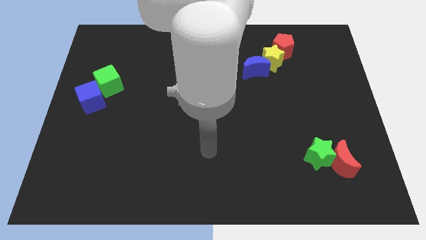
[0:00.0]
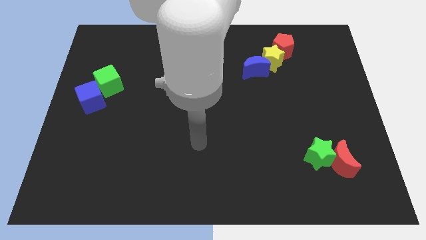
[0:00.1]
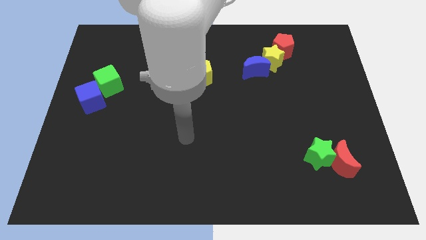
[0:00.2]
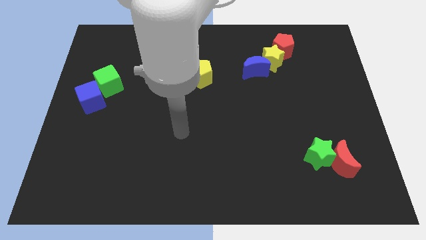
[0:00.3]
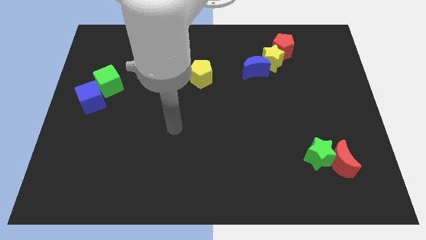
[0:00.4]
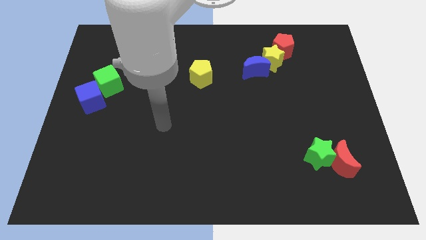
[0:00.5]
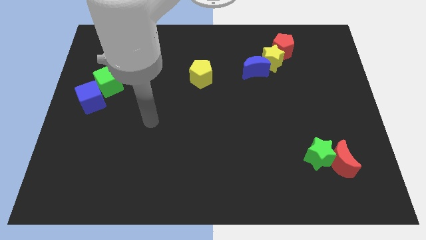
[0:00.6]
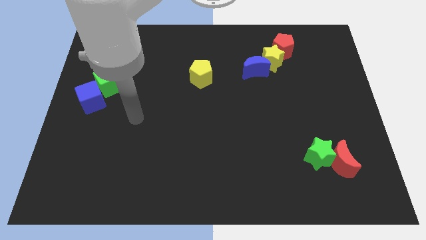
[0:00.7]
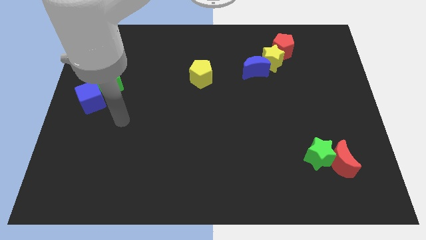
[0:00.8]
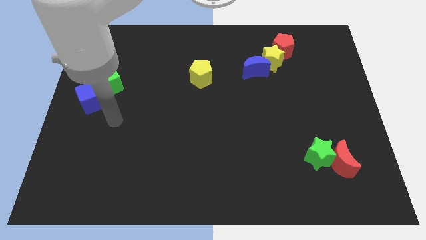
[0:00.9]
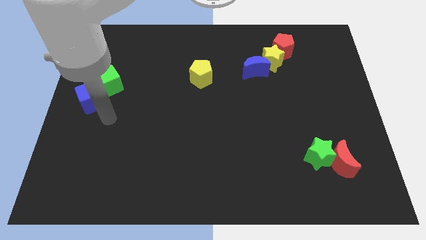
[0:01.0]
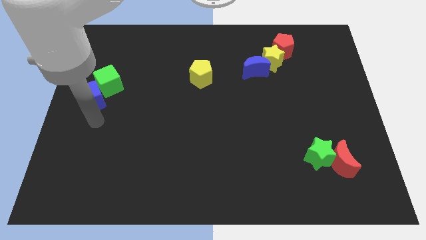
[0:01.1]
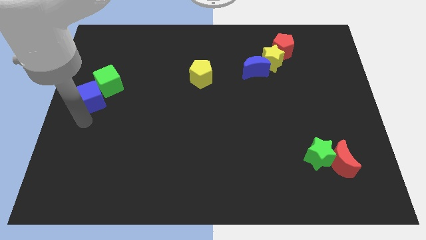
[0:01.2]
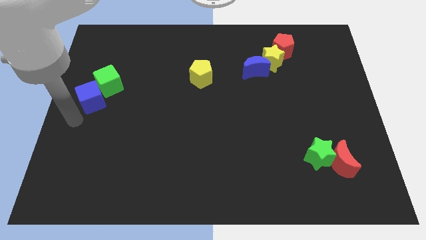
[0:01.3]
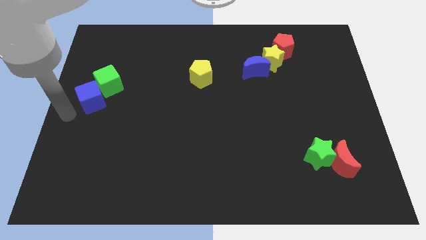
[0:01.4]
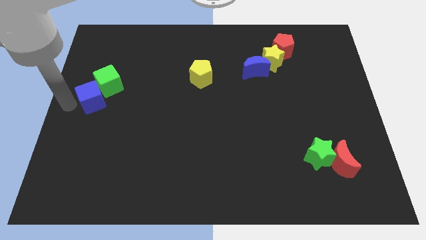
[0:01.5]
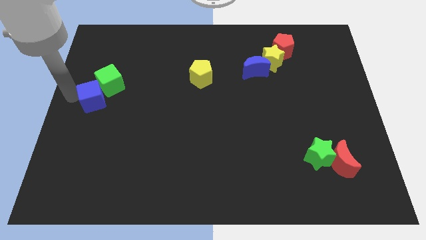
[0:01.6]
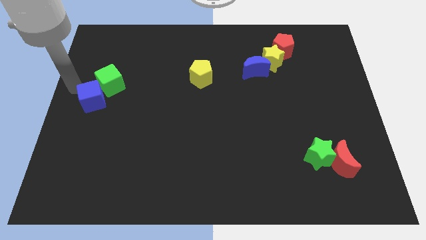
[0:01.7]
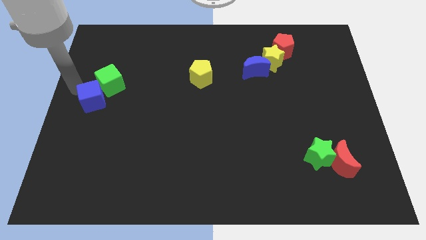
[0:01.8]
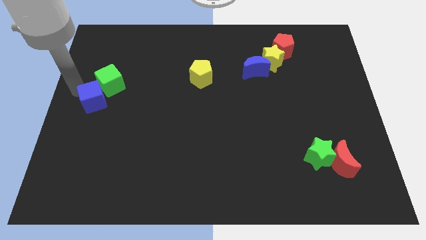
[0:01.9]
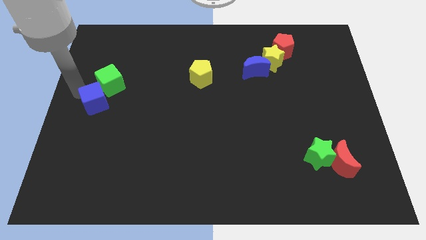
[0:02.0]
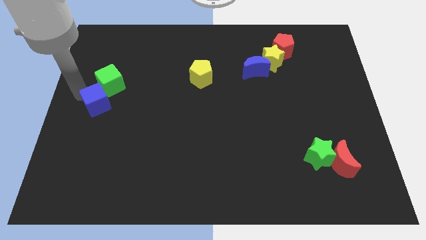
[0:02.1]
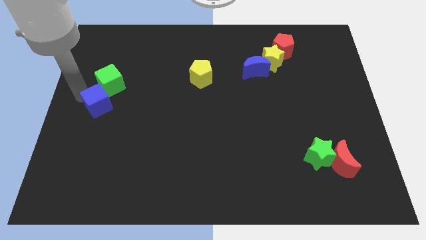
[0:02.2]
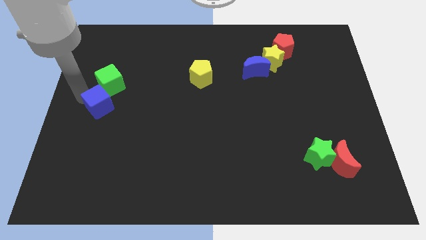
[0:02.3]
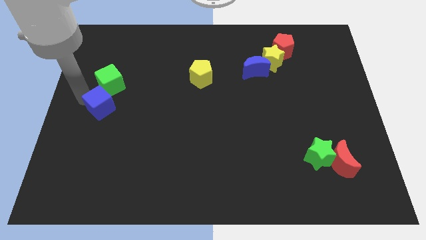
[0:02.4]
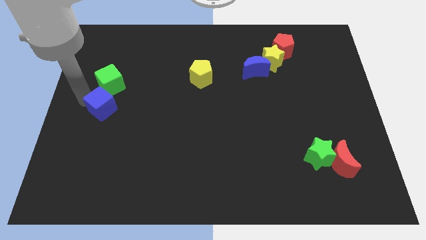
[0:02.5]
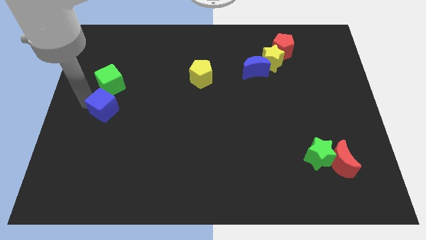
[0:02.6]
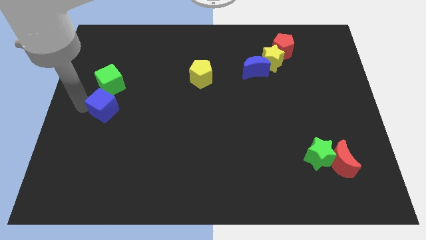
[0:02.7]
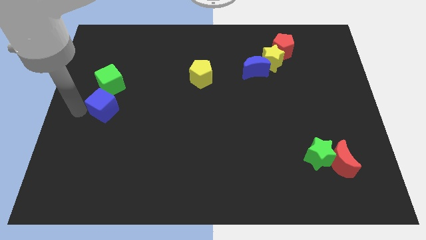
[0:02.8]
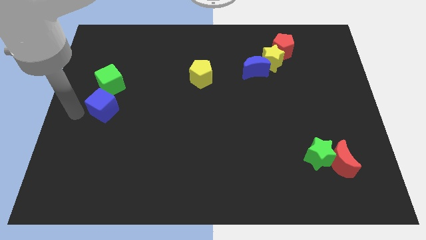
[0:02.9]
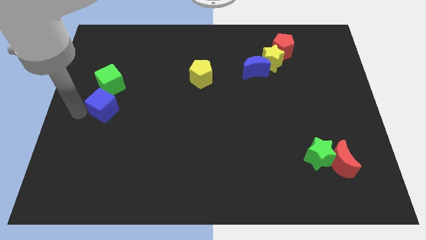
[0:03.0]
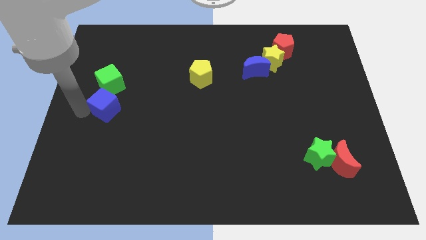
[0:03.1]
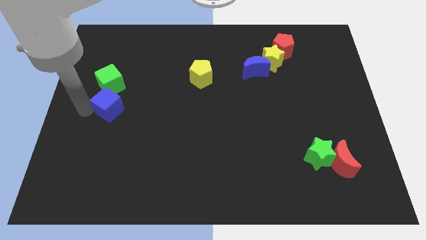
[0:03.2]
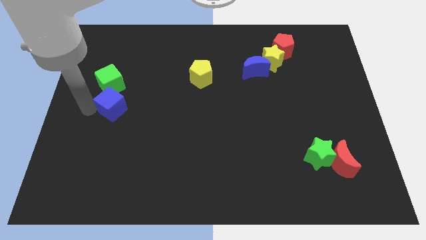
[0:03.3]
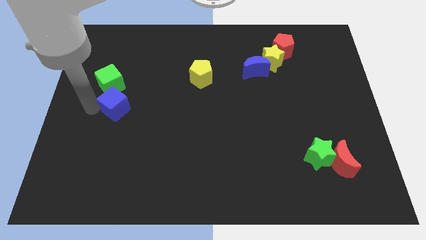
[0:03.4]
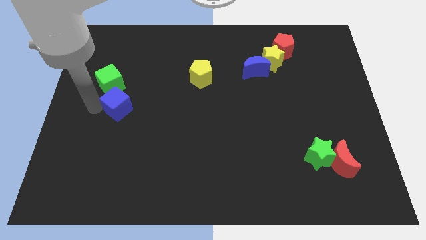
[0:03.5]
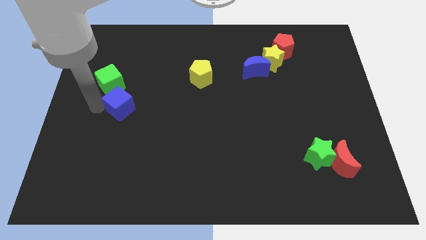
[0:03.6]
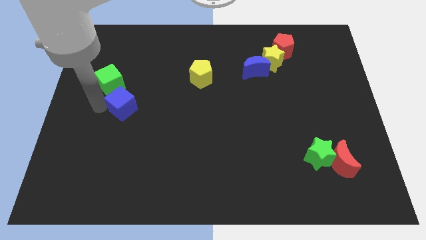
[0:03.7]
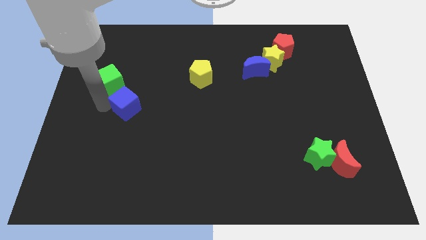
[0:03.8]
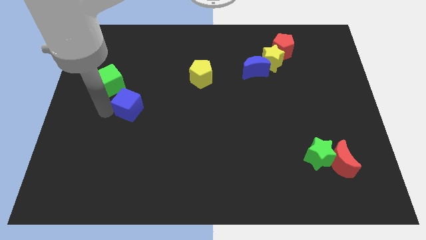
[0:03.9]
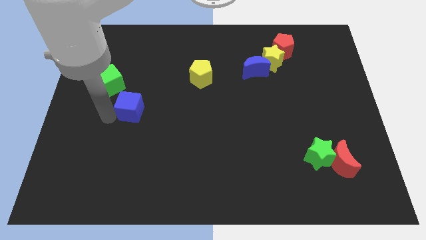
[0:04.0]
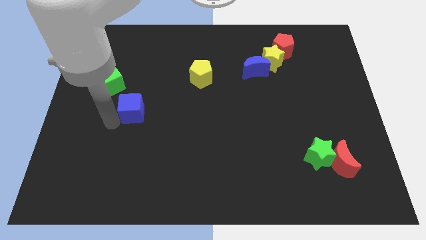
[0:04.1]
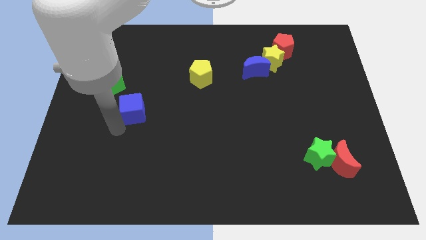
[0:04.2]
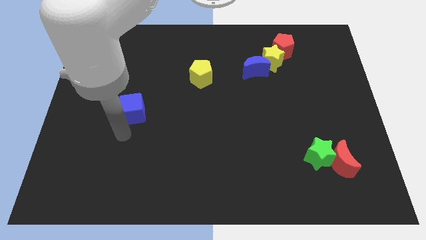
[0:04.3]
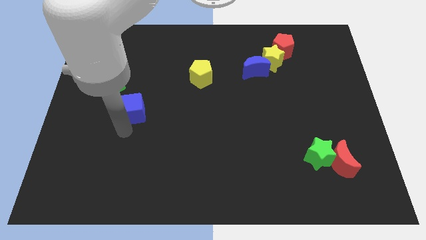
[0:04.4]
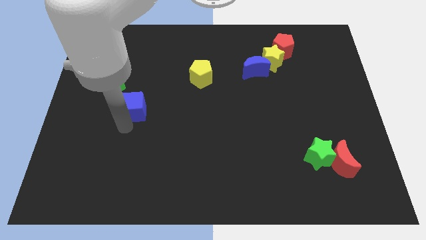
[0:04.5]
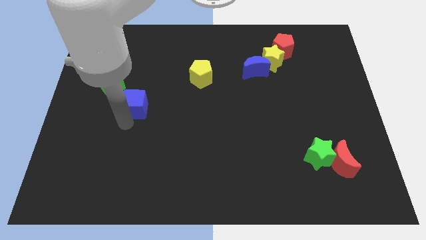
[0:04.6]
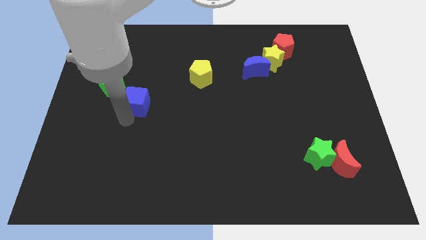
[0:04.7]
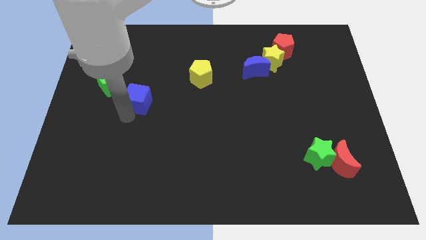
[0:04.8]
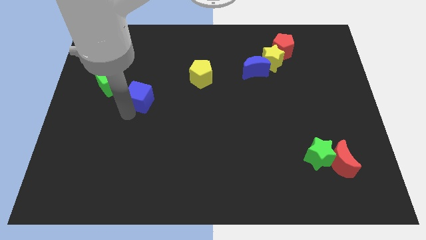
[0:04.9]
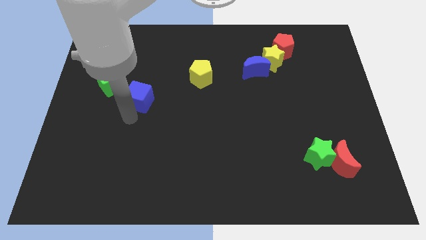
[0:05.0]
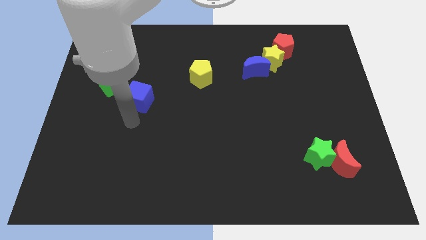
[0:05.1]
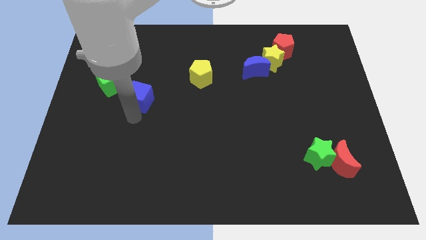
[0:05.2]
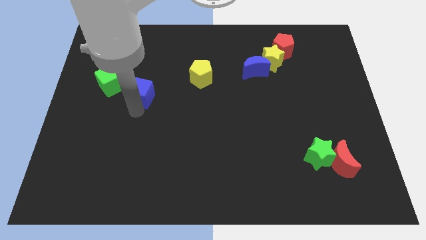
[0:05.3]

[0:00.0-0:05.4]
slightly push the blue cube diagonally up and to the right

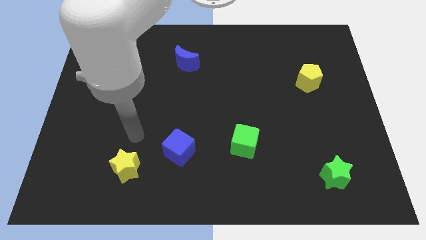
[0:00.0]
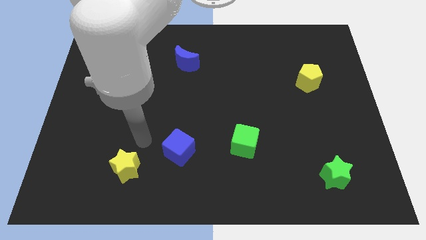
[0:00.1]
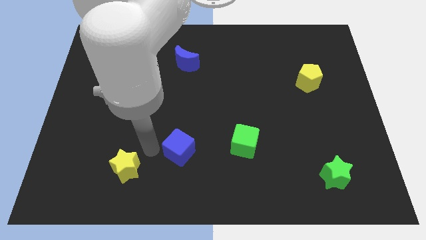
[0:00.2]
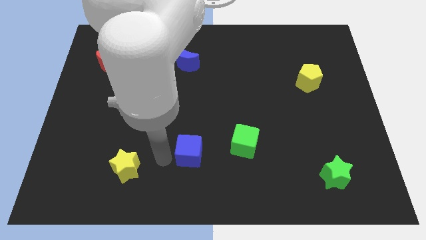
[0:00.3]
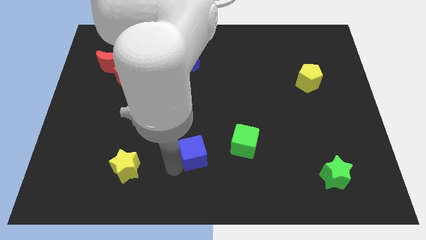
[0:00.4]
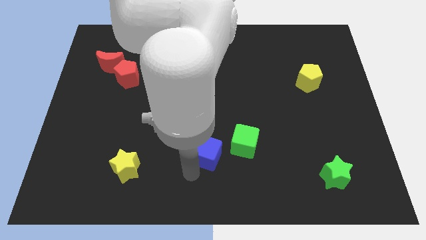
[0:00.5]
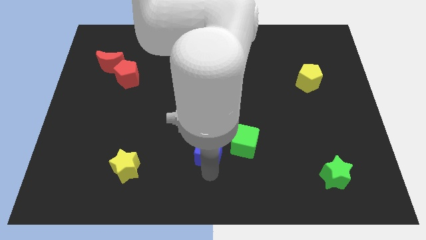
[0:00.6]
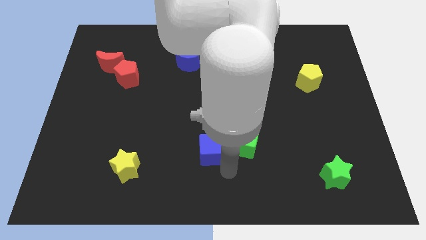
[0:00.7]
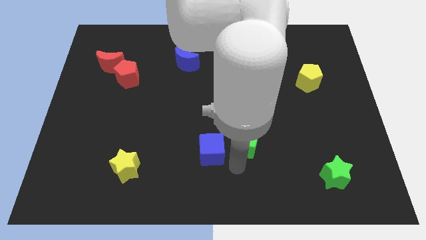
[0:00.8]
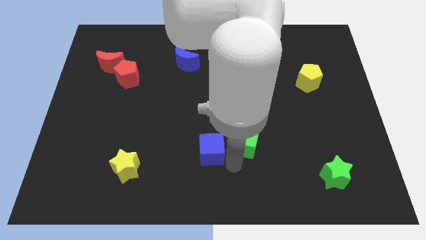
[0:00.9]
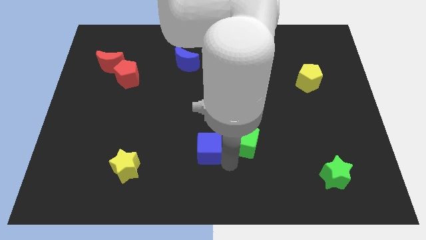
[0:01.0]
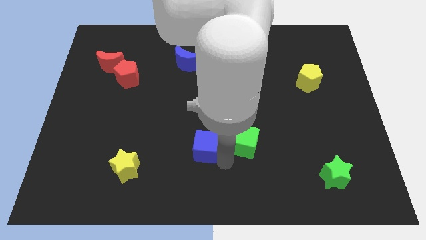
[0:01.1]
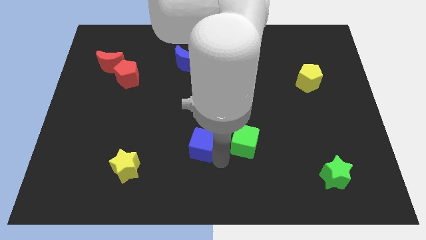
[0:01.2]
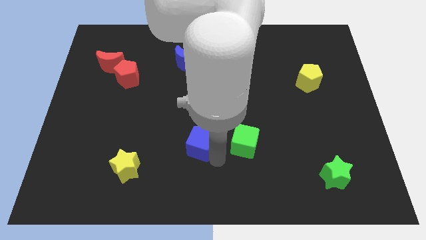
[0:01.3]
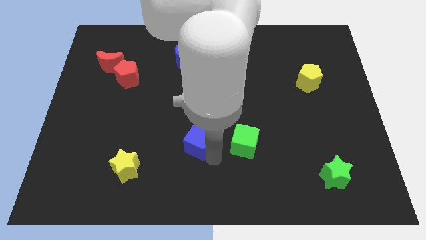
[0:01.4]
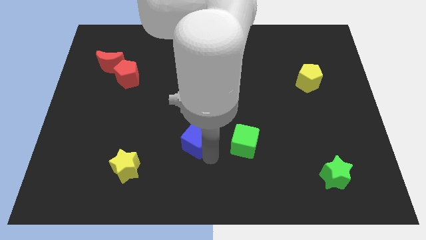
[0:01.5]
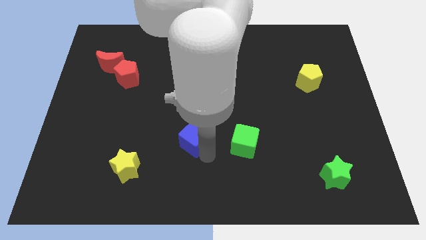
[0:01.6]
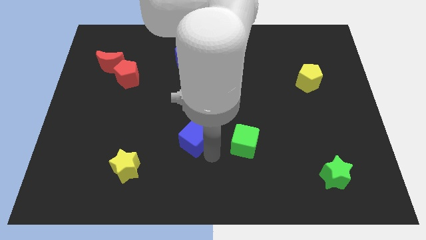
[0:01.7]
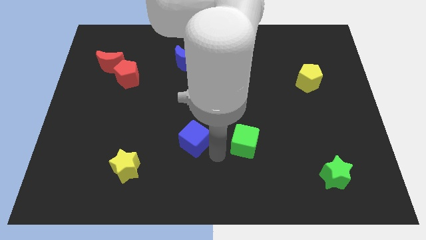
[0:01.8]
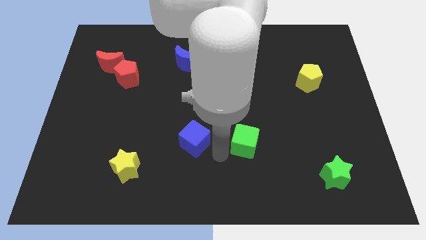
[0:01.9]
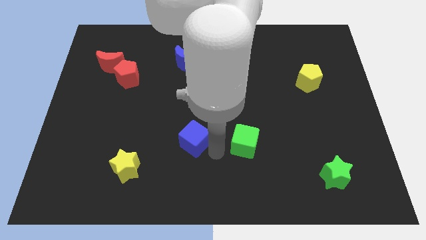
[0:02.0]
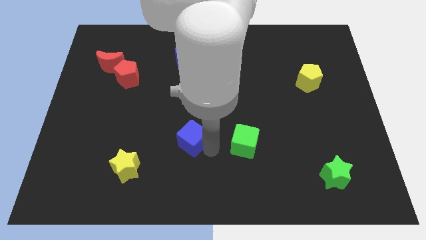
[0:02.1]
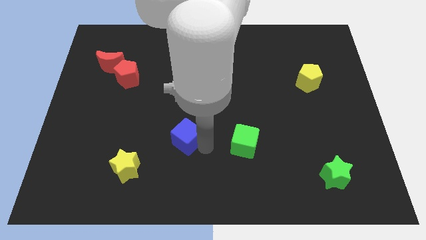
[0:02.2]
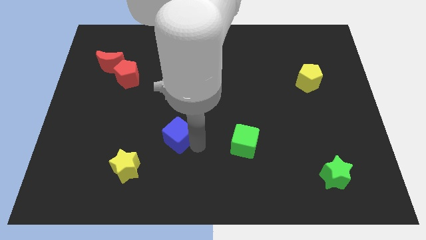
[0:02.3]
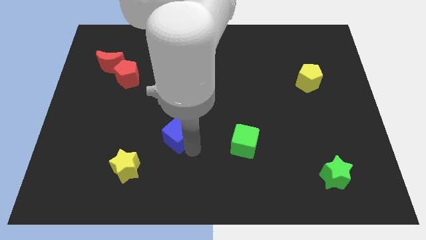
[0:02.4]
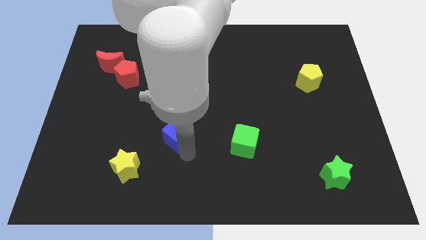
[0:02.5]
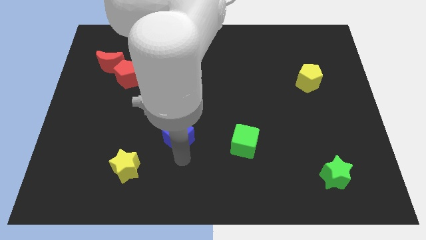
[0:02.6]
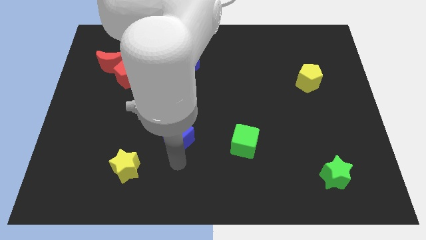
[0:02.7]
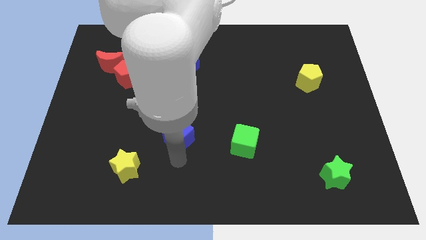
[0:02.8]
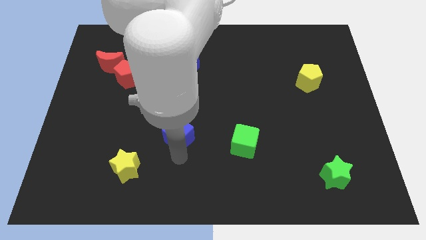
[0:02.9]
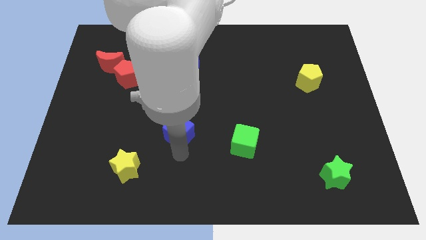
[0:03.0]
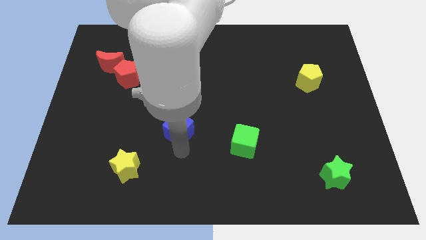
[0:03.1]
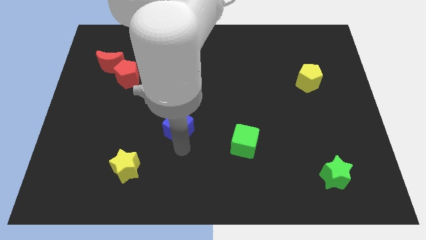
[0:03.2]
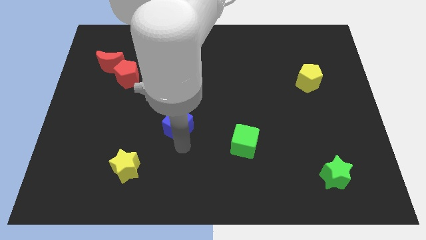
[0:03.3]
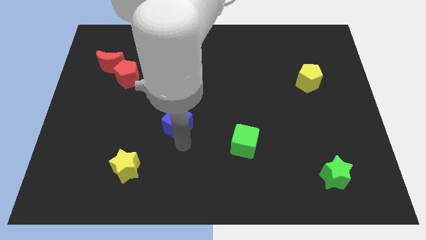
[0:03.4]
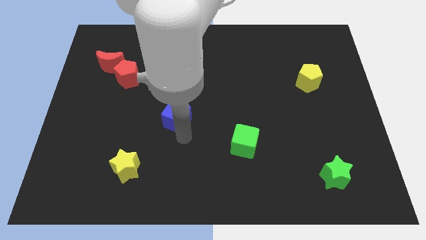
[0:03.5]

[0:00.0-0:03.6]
slightly push the blue cube upwards
